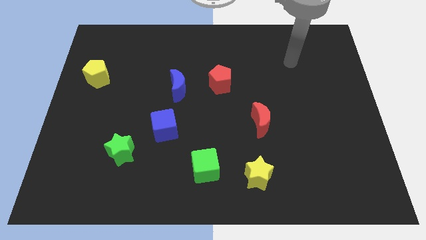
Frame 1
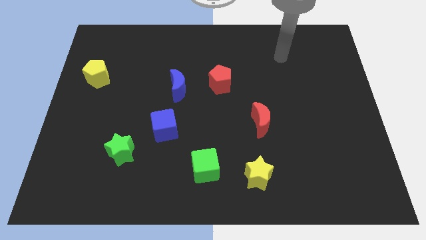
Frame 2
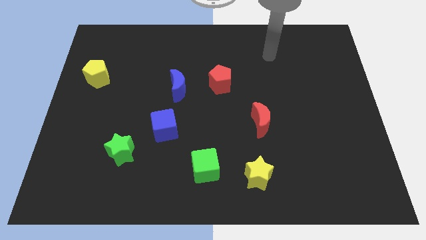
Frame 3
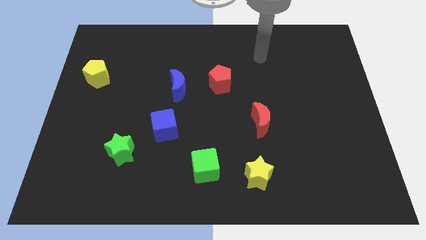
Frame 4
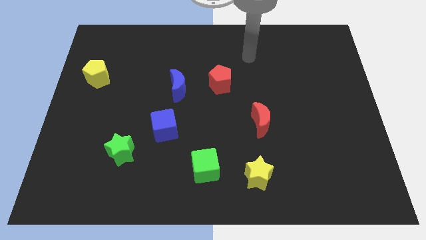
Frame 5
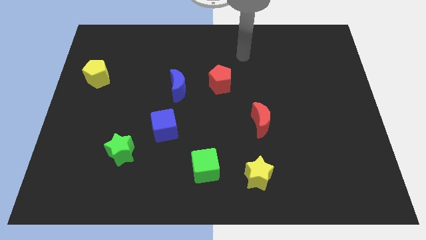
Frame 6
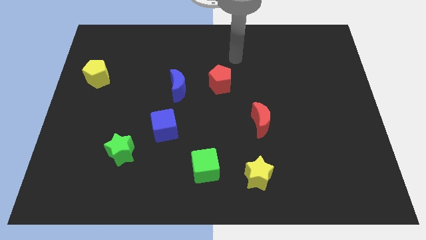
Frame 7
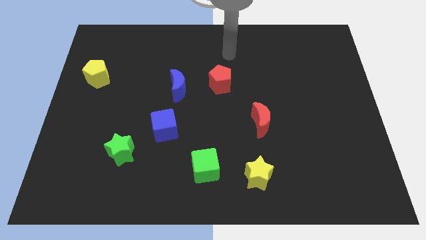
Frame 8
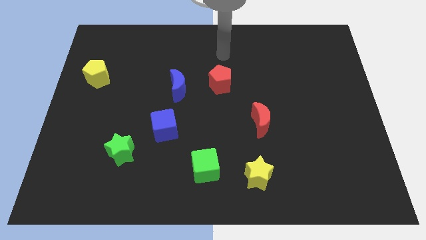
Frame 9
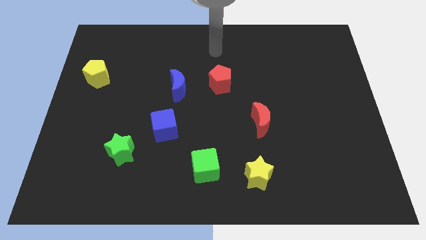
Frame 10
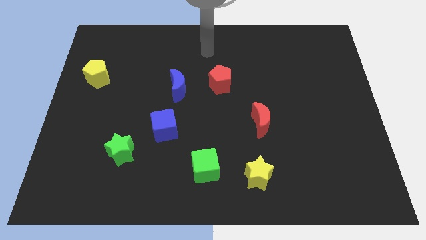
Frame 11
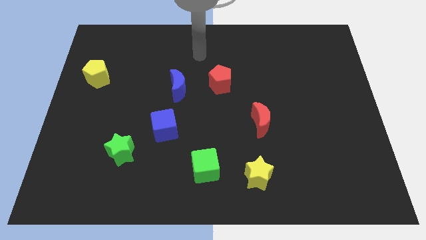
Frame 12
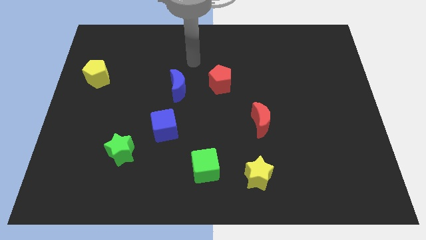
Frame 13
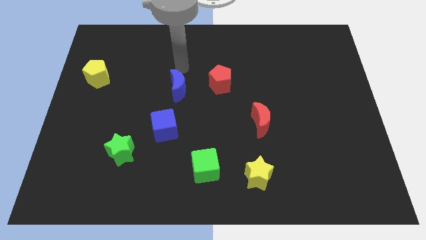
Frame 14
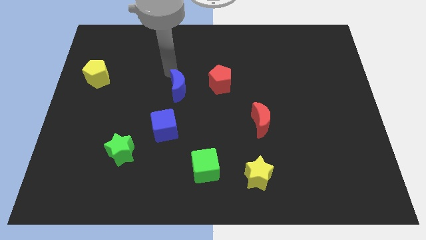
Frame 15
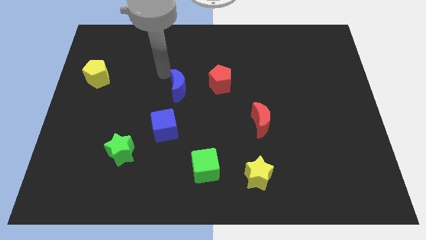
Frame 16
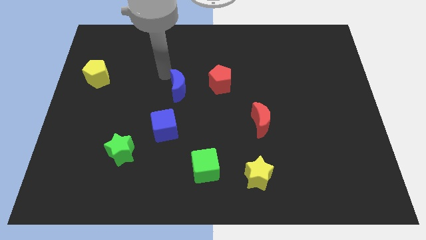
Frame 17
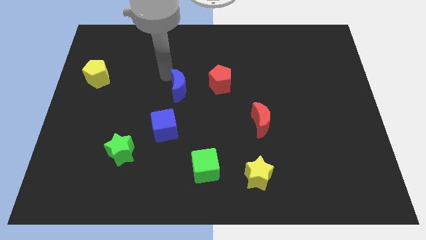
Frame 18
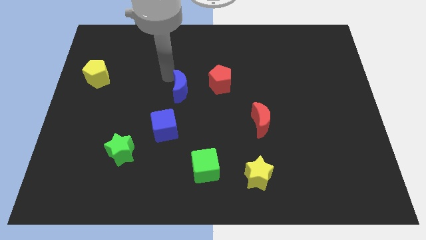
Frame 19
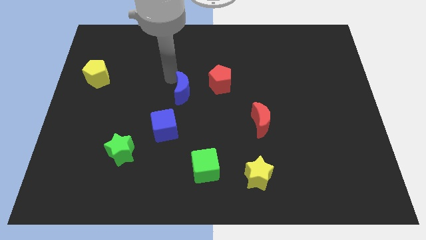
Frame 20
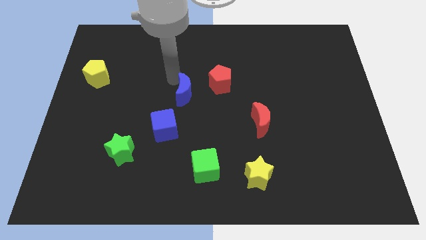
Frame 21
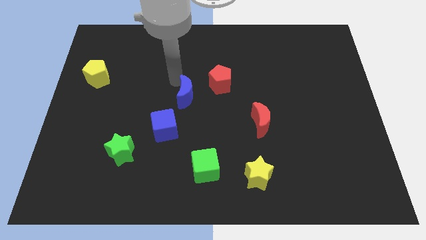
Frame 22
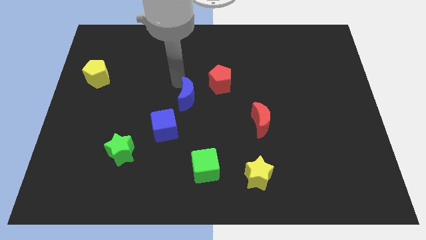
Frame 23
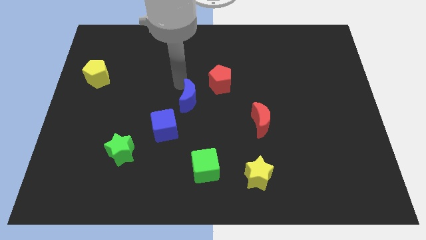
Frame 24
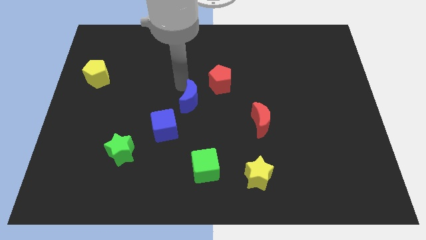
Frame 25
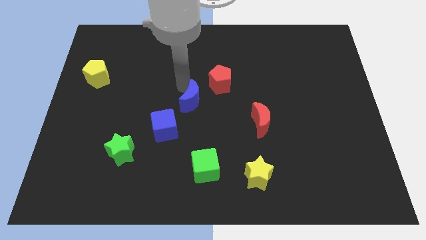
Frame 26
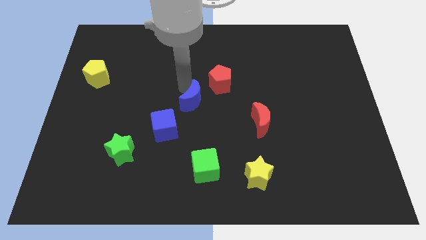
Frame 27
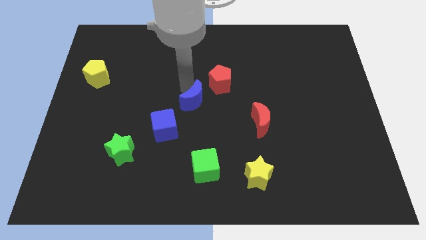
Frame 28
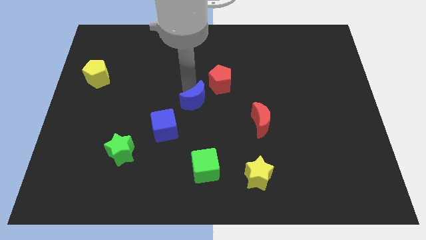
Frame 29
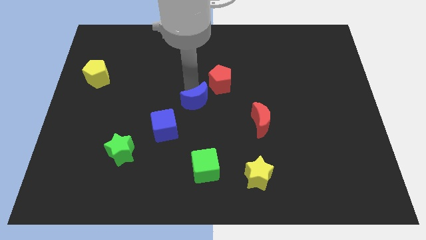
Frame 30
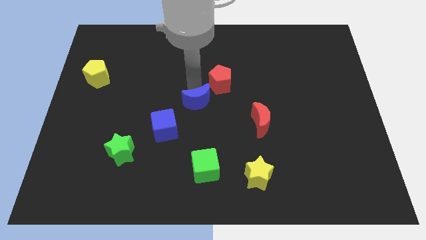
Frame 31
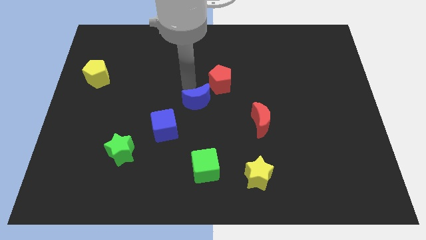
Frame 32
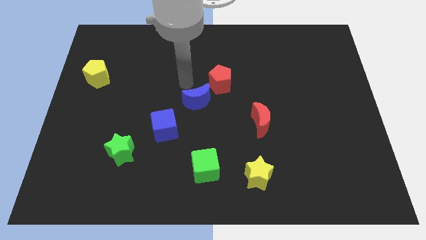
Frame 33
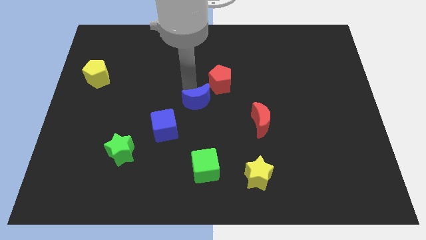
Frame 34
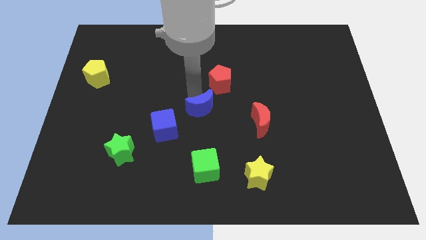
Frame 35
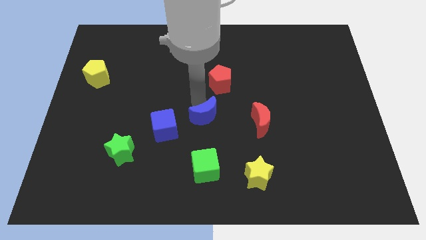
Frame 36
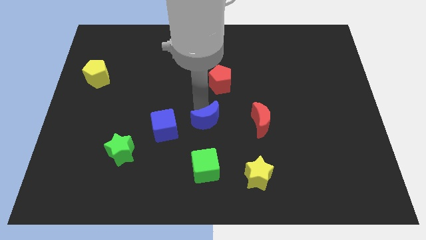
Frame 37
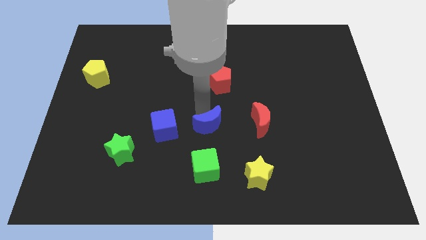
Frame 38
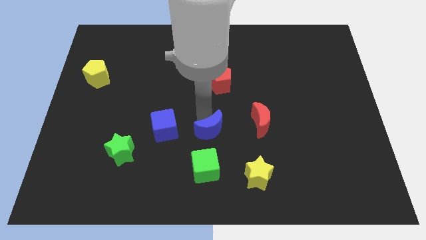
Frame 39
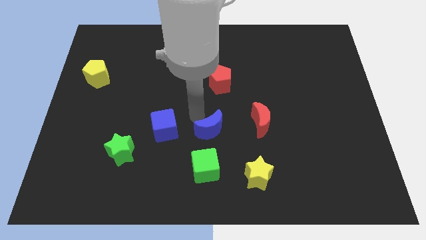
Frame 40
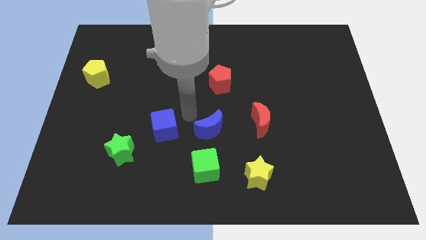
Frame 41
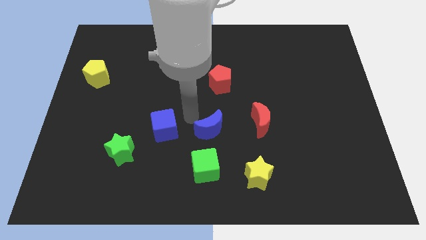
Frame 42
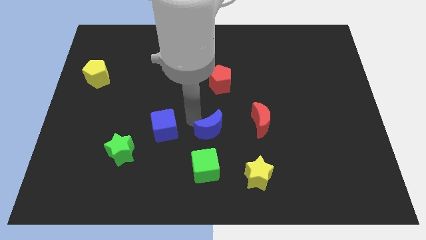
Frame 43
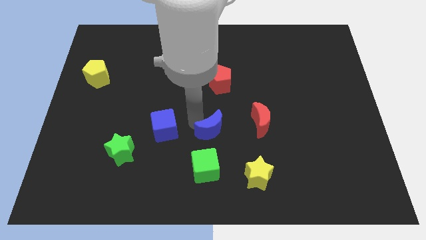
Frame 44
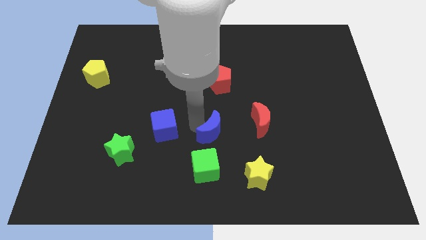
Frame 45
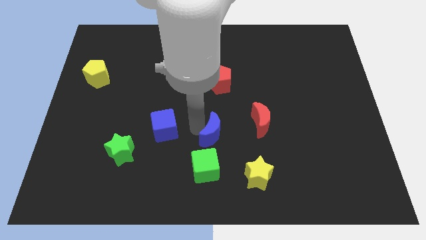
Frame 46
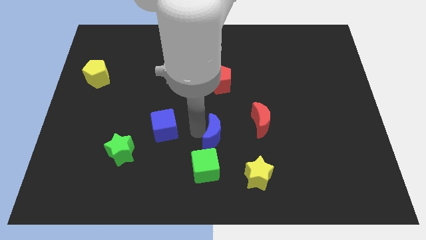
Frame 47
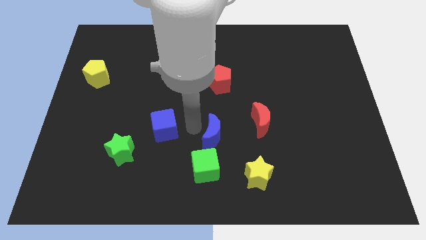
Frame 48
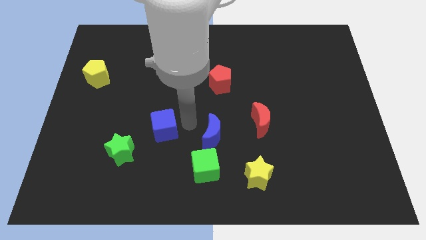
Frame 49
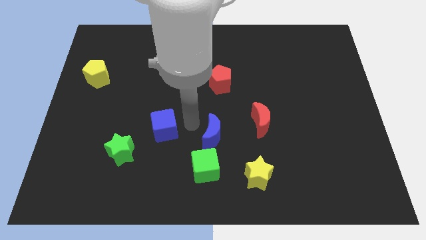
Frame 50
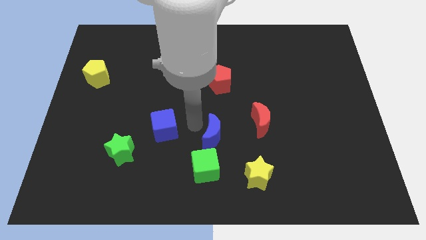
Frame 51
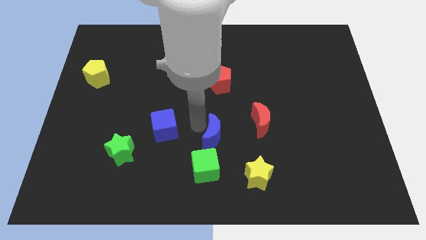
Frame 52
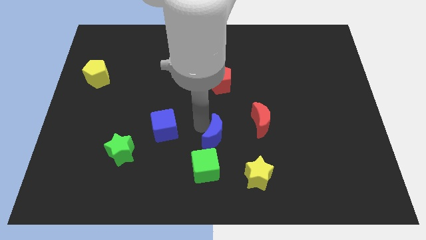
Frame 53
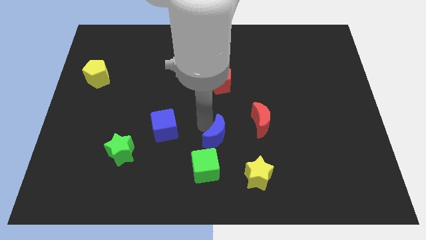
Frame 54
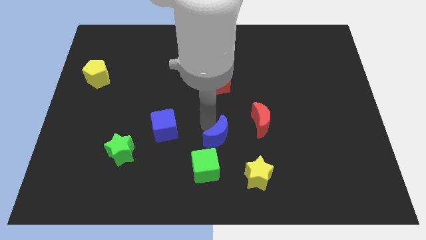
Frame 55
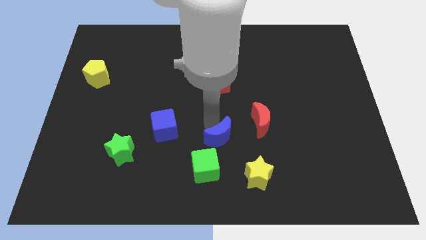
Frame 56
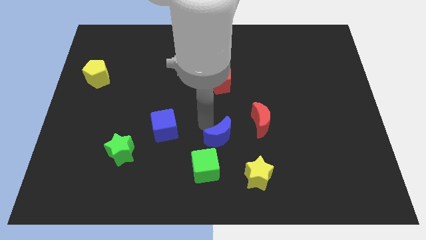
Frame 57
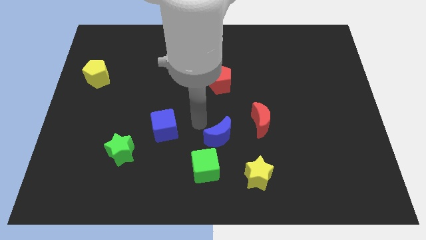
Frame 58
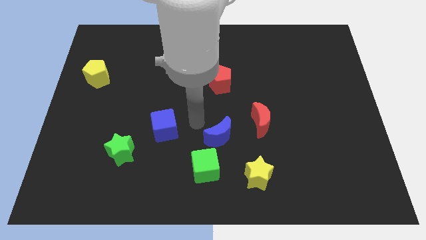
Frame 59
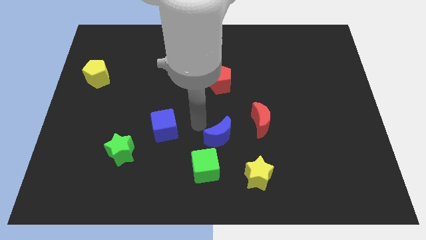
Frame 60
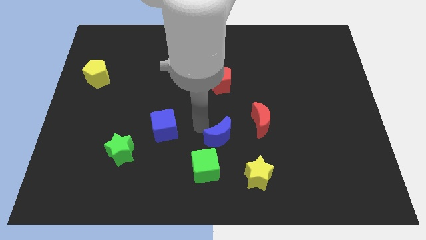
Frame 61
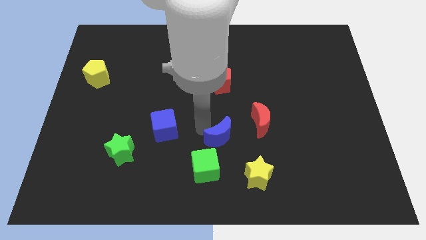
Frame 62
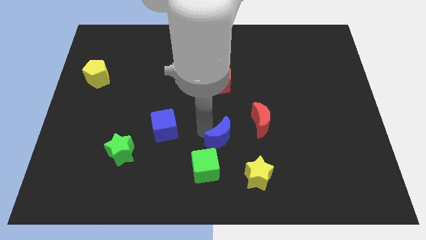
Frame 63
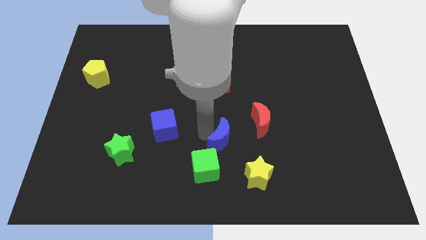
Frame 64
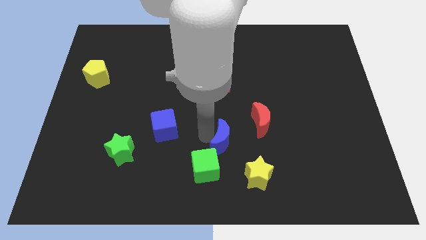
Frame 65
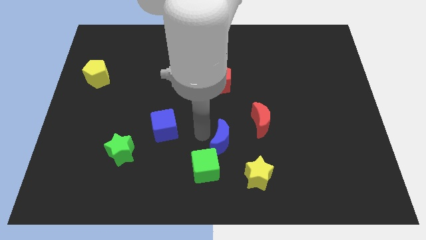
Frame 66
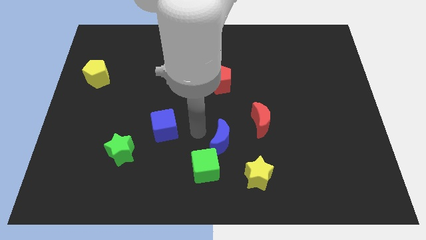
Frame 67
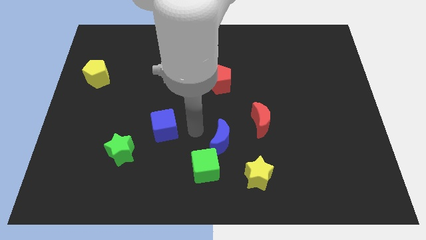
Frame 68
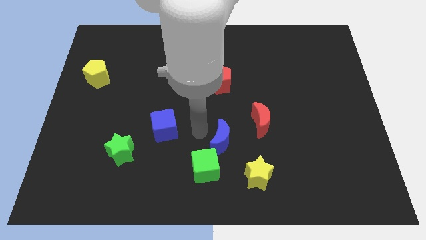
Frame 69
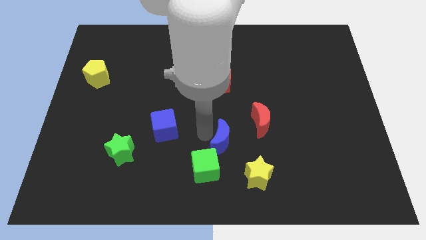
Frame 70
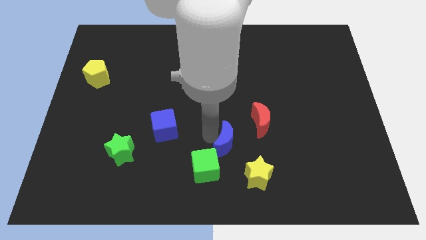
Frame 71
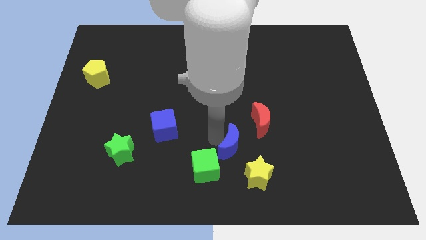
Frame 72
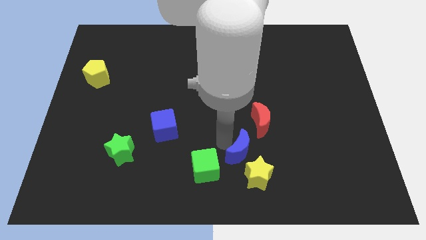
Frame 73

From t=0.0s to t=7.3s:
put the blue moon right of the green cube
